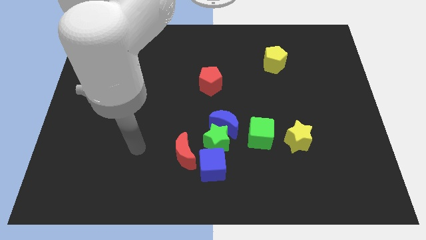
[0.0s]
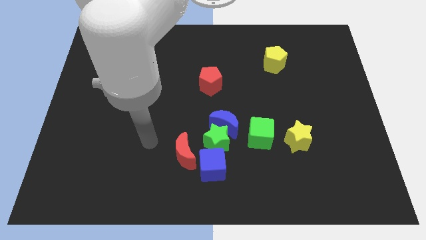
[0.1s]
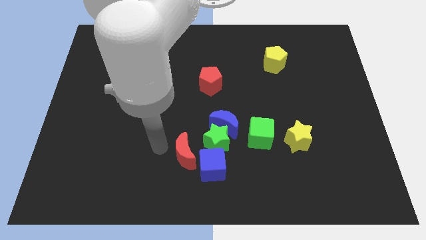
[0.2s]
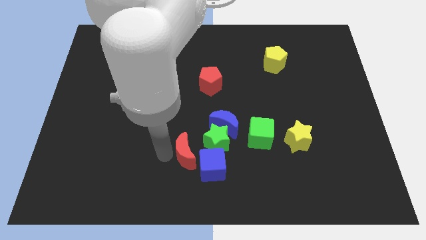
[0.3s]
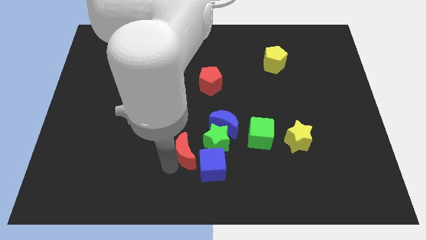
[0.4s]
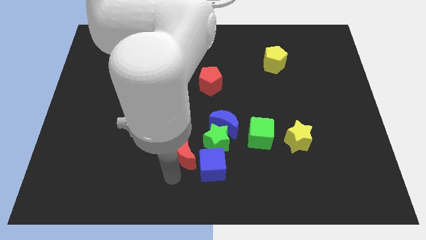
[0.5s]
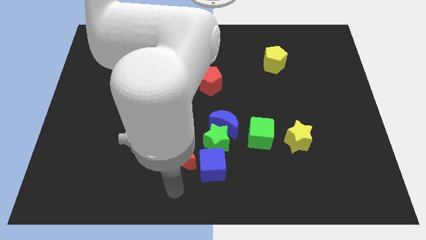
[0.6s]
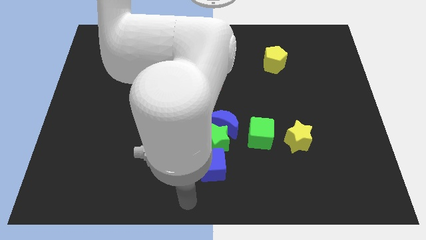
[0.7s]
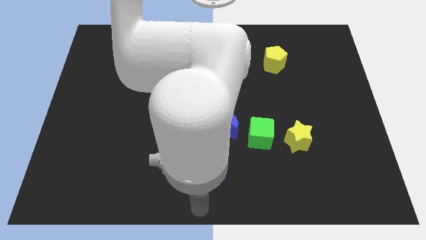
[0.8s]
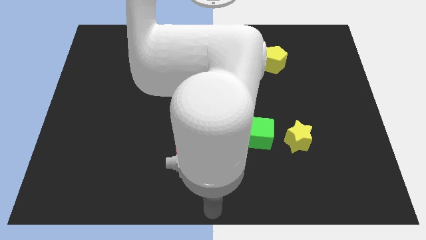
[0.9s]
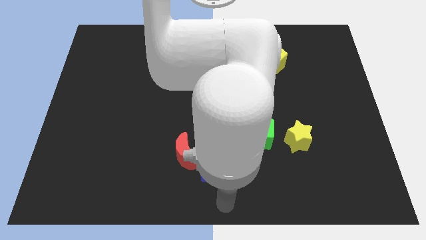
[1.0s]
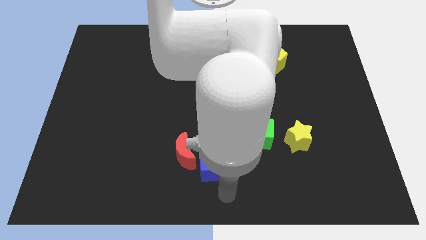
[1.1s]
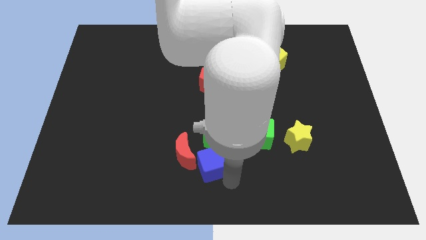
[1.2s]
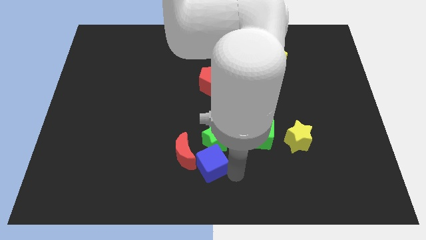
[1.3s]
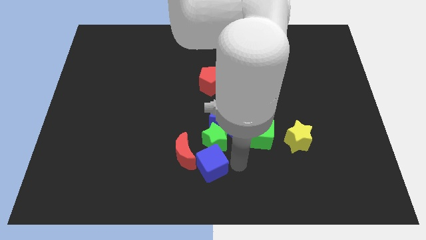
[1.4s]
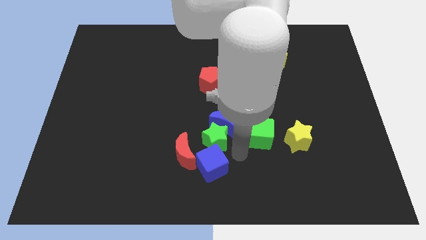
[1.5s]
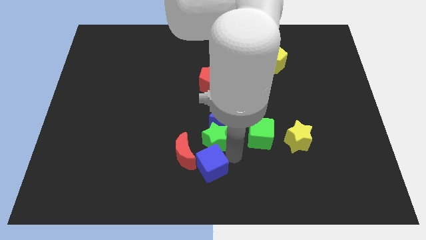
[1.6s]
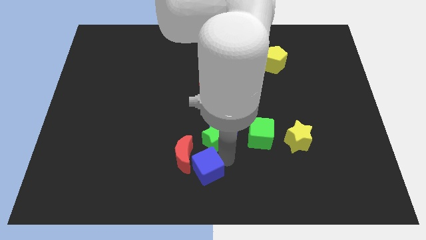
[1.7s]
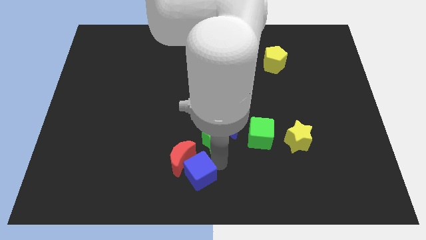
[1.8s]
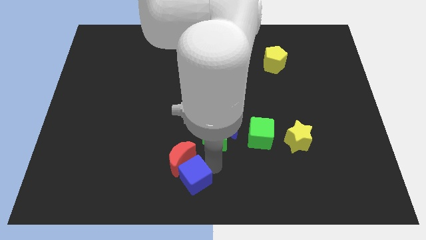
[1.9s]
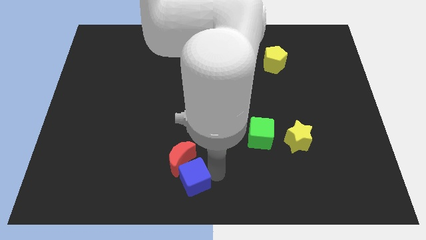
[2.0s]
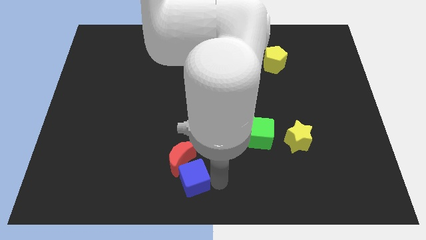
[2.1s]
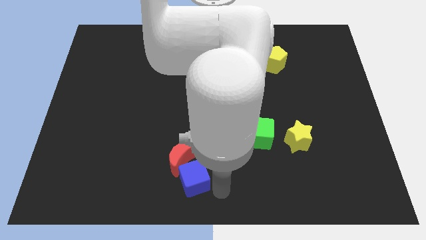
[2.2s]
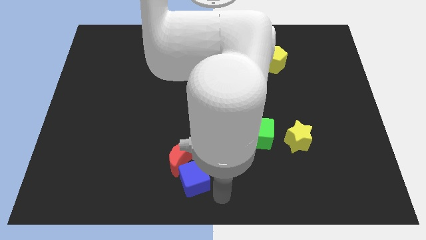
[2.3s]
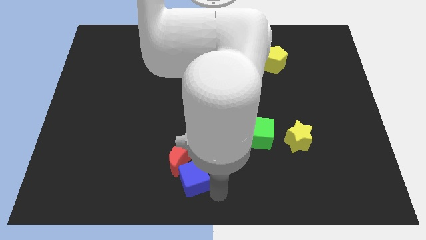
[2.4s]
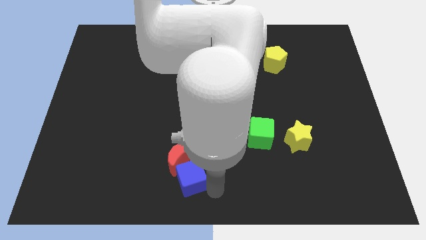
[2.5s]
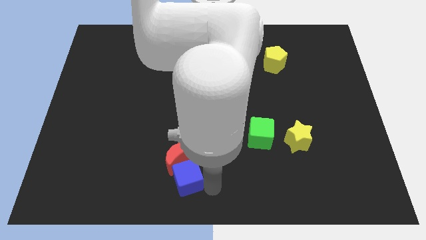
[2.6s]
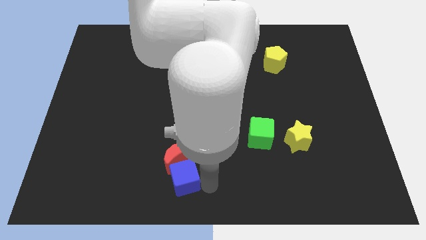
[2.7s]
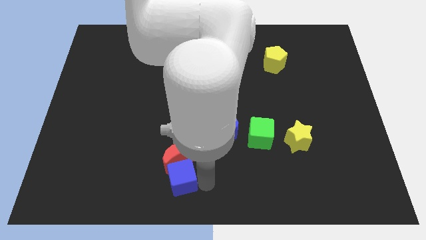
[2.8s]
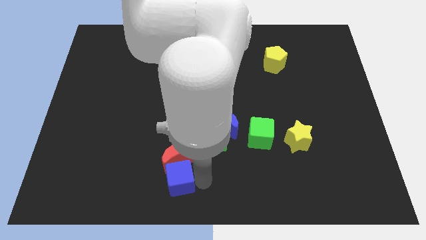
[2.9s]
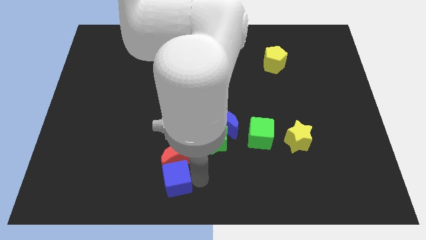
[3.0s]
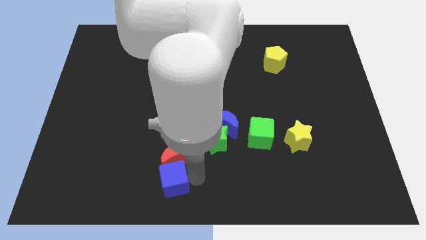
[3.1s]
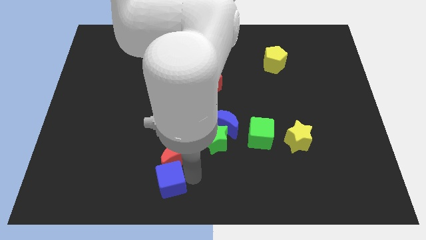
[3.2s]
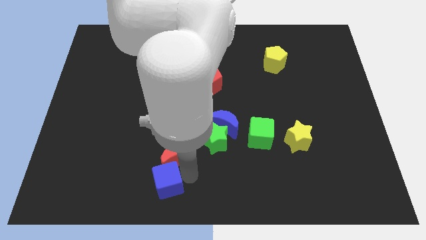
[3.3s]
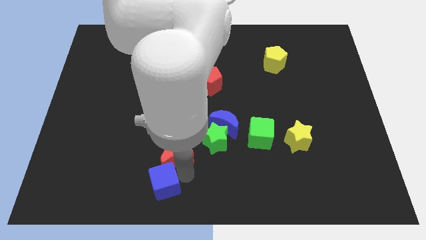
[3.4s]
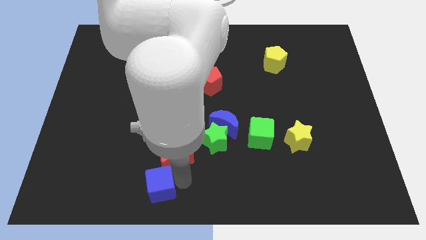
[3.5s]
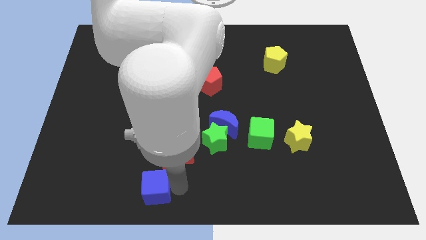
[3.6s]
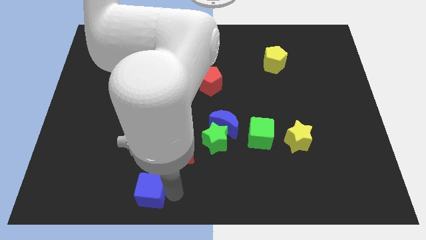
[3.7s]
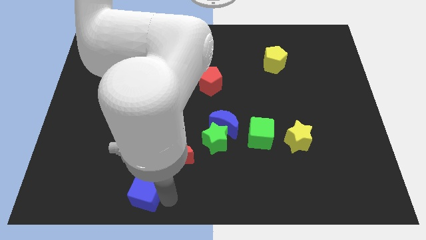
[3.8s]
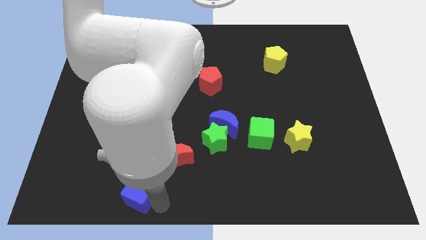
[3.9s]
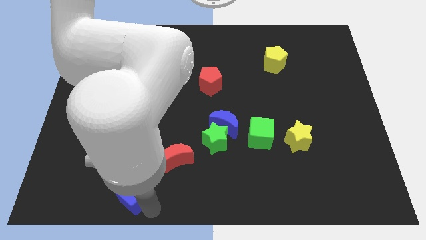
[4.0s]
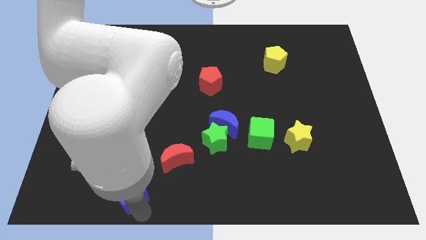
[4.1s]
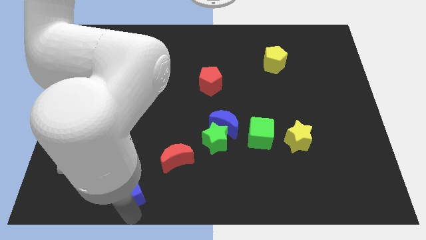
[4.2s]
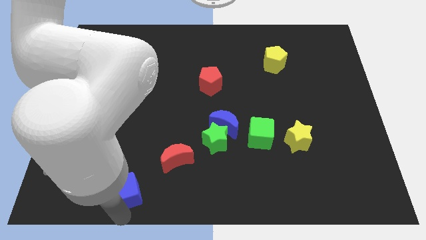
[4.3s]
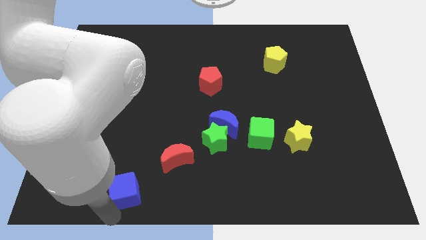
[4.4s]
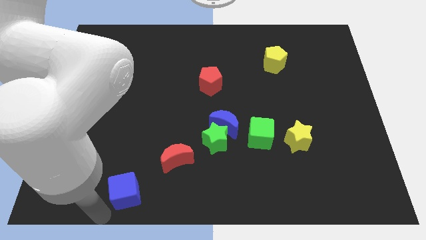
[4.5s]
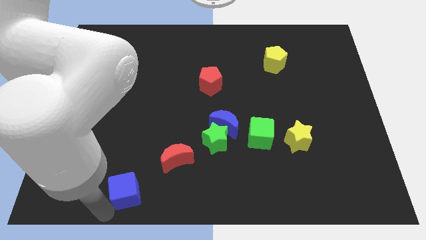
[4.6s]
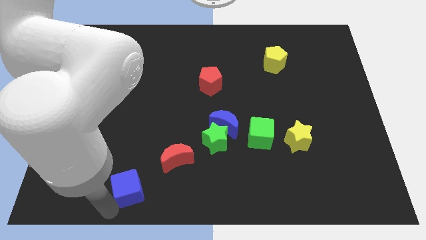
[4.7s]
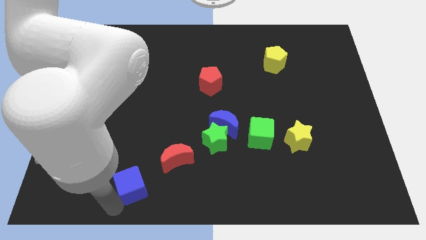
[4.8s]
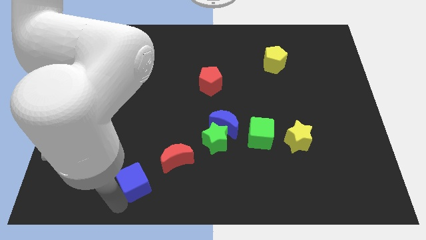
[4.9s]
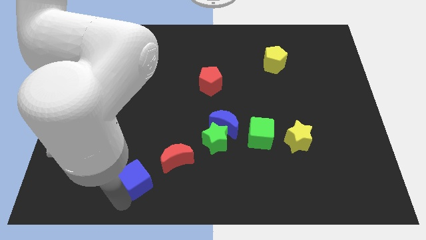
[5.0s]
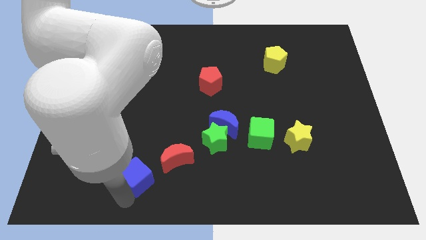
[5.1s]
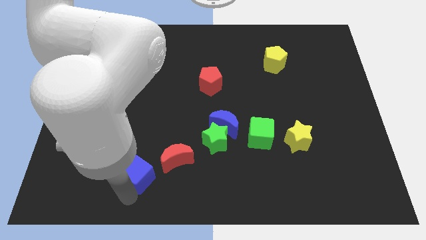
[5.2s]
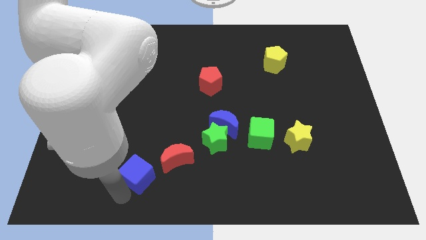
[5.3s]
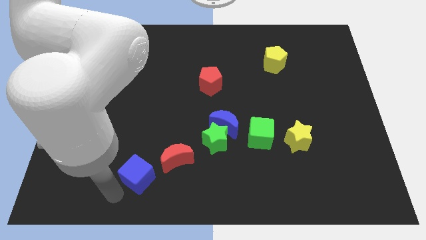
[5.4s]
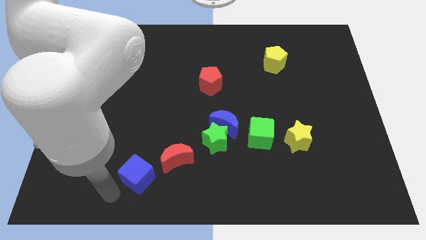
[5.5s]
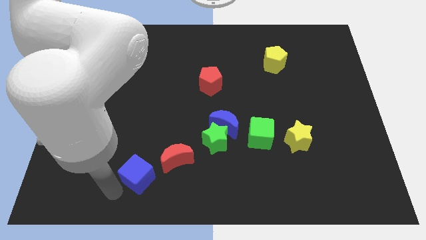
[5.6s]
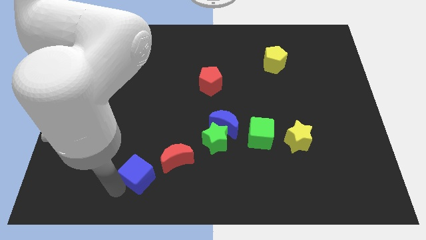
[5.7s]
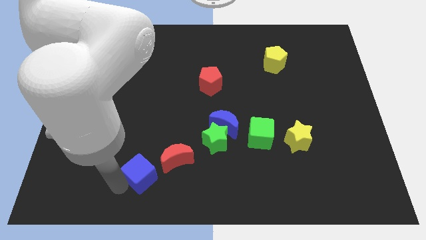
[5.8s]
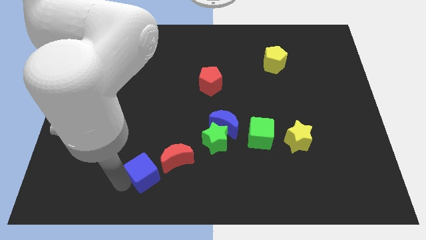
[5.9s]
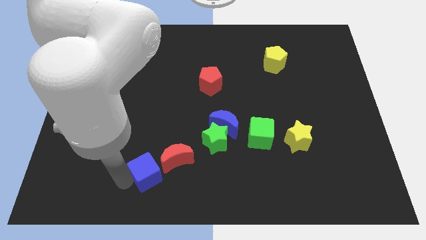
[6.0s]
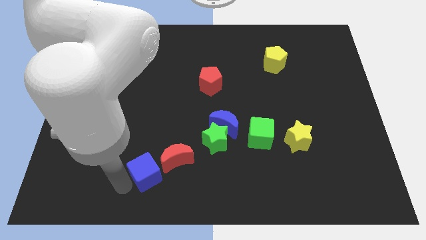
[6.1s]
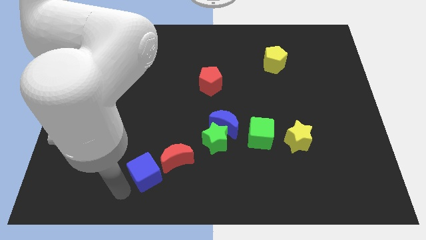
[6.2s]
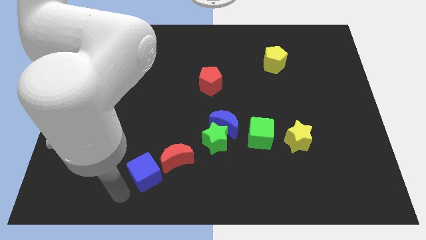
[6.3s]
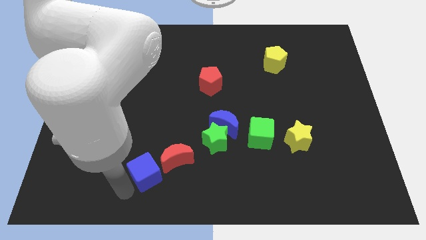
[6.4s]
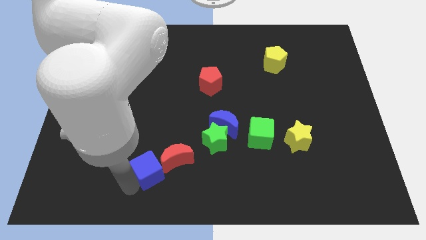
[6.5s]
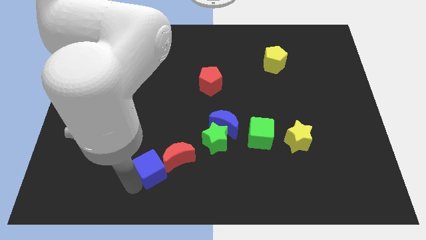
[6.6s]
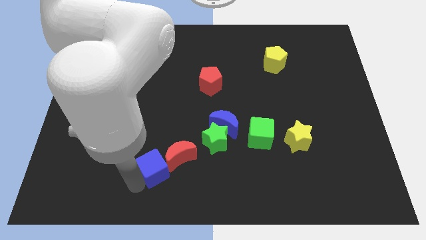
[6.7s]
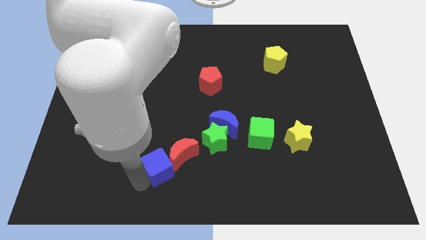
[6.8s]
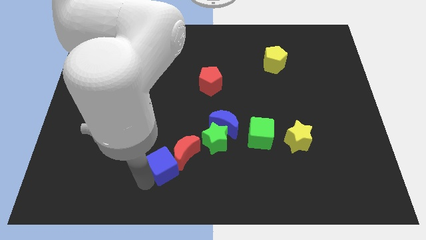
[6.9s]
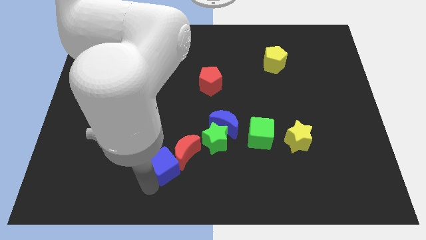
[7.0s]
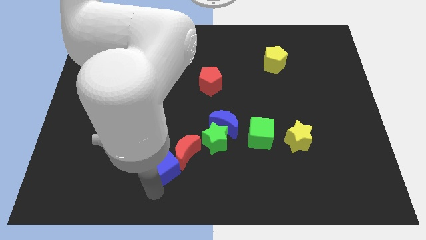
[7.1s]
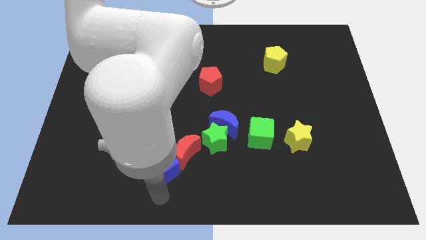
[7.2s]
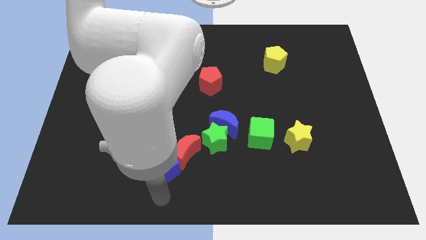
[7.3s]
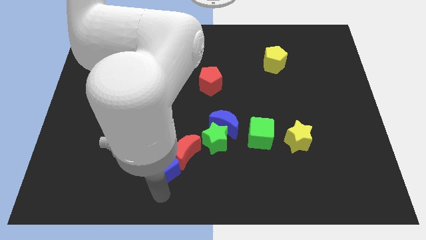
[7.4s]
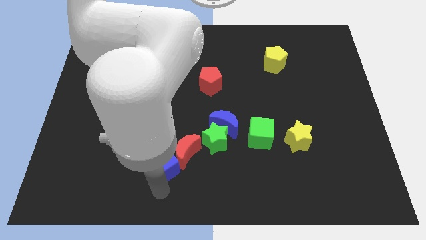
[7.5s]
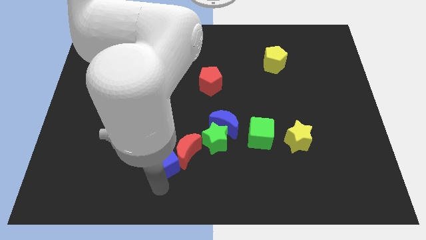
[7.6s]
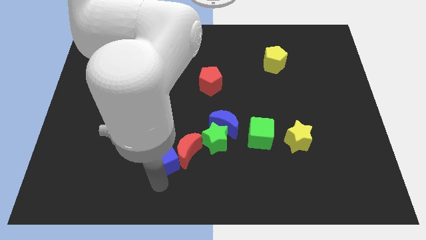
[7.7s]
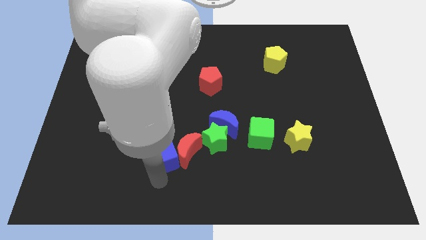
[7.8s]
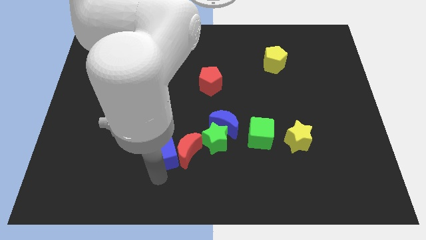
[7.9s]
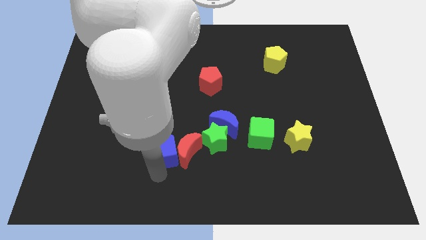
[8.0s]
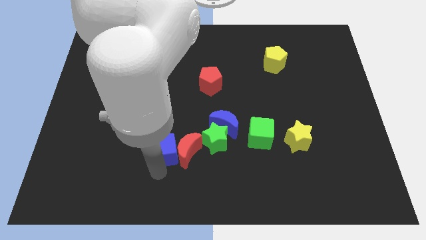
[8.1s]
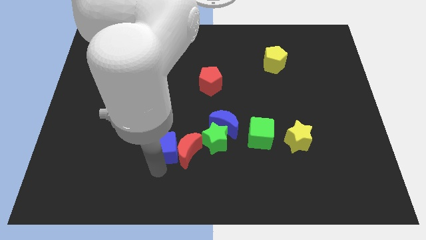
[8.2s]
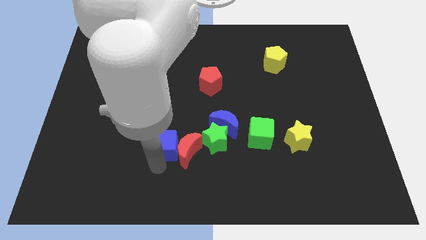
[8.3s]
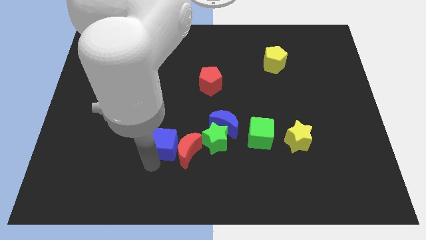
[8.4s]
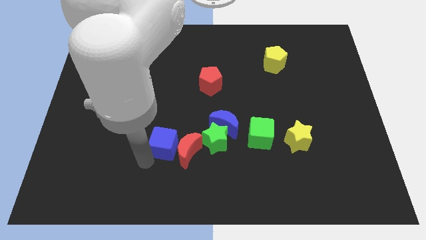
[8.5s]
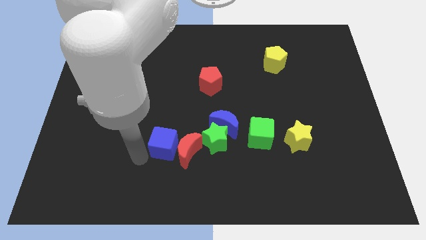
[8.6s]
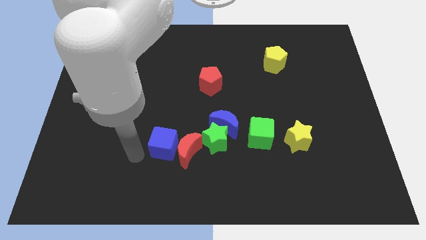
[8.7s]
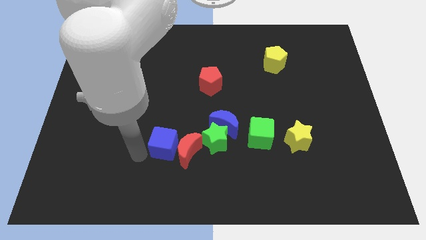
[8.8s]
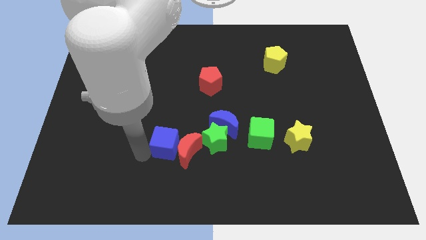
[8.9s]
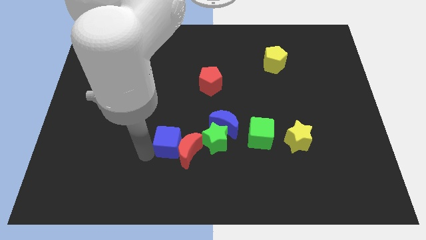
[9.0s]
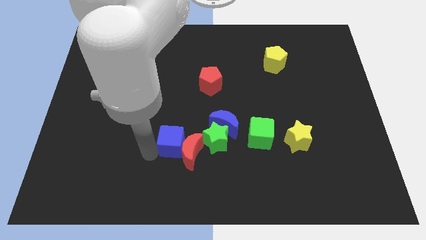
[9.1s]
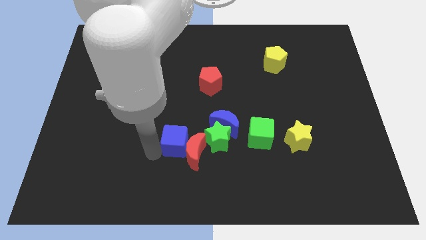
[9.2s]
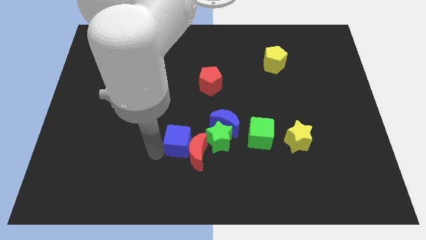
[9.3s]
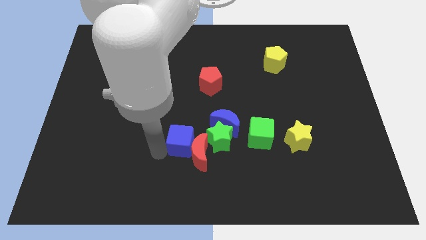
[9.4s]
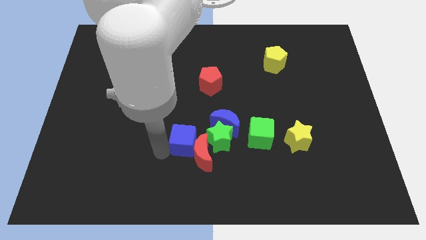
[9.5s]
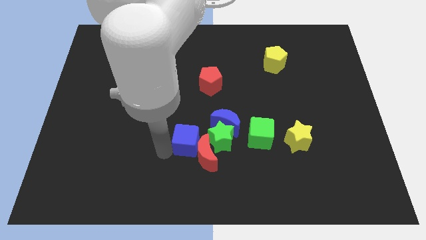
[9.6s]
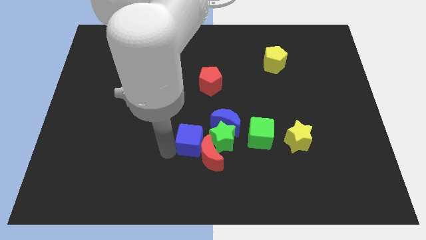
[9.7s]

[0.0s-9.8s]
put the blue cube to the left side of the green cube
